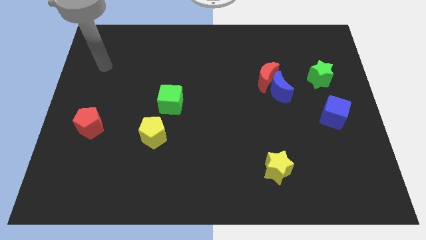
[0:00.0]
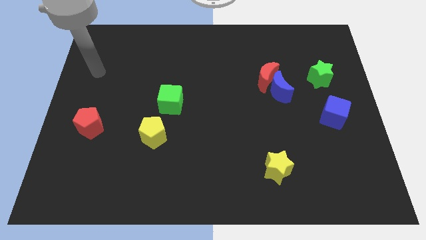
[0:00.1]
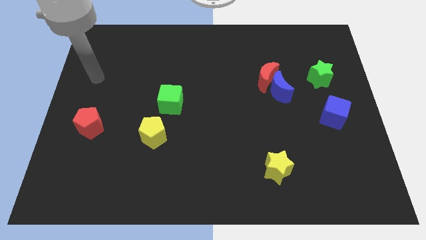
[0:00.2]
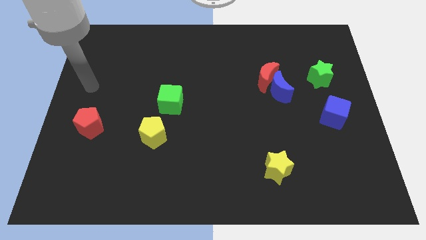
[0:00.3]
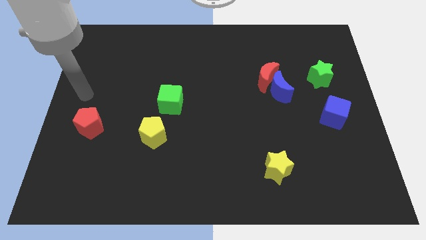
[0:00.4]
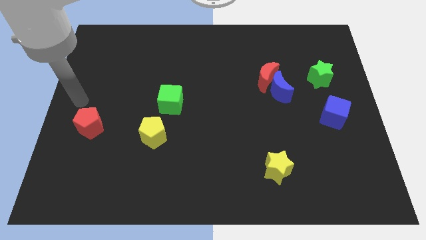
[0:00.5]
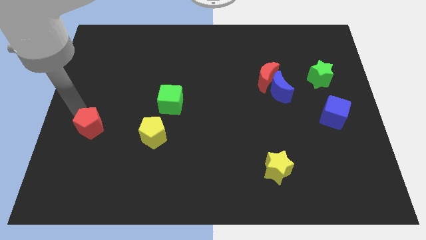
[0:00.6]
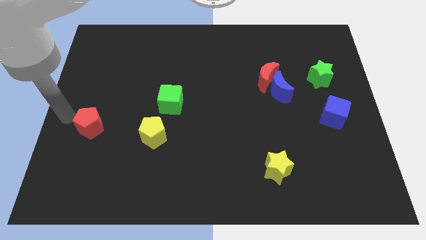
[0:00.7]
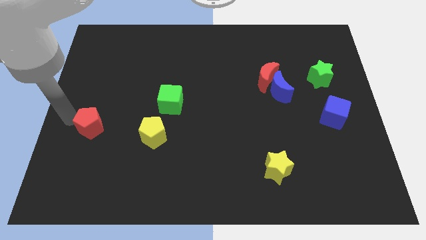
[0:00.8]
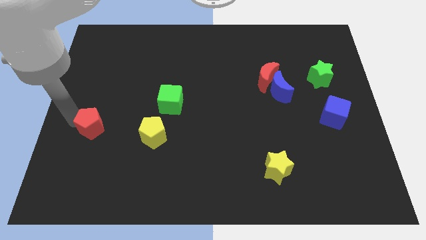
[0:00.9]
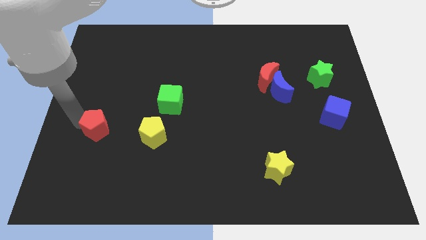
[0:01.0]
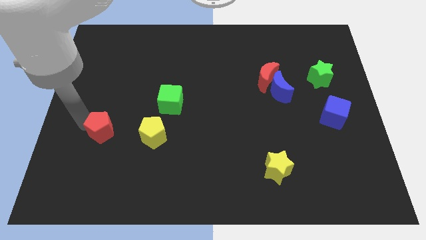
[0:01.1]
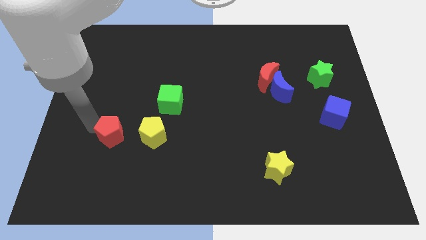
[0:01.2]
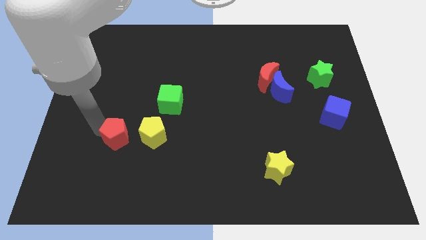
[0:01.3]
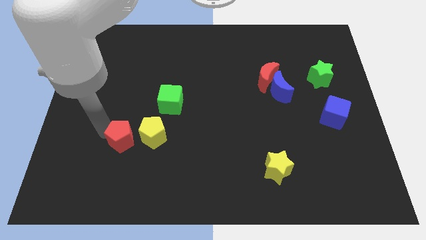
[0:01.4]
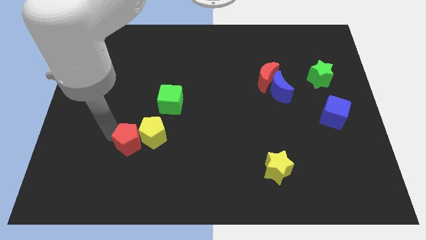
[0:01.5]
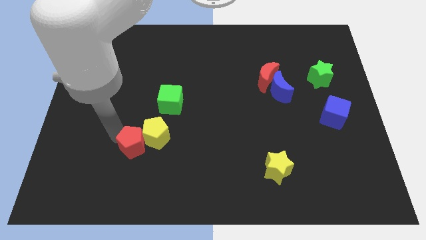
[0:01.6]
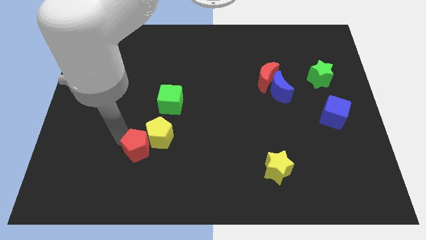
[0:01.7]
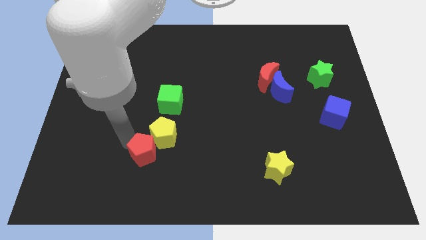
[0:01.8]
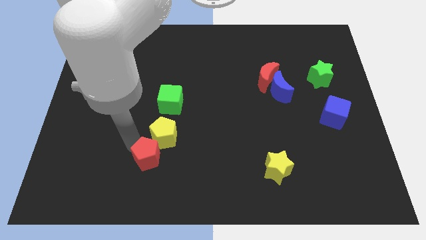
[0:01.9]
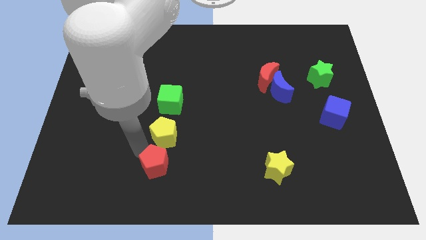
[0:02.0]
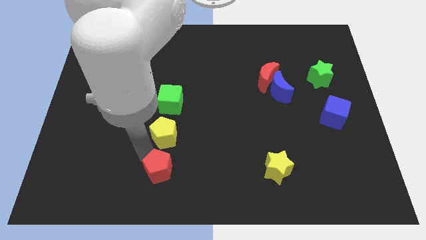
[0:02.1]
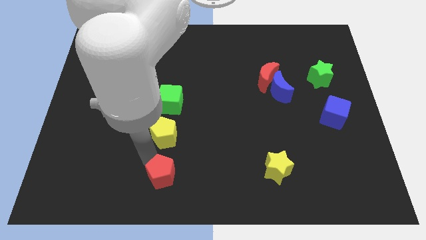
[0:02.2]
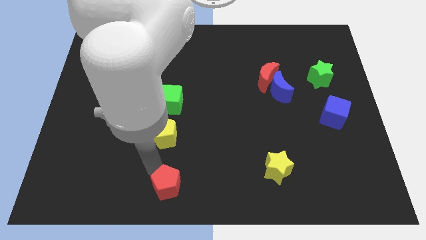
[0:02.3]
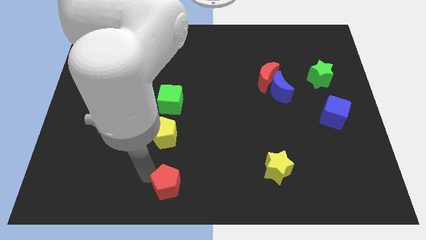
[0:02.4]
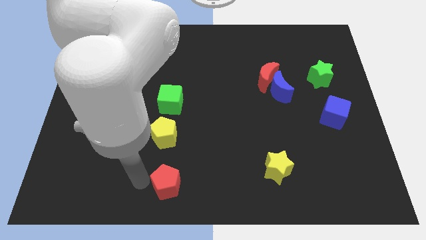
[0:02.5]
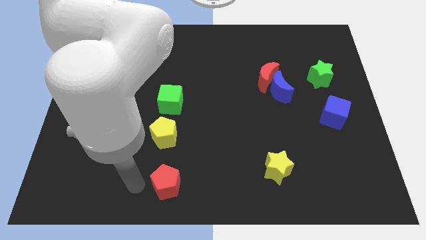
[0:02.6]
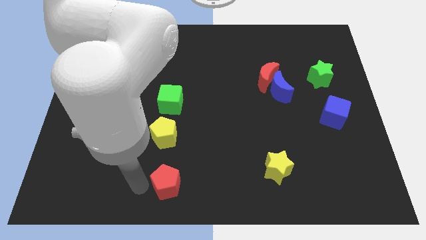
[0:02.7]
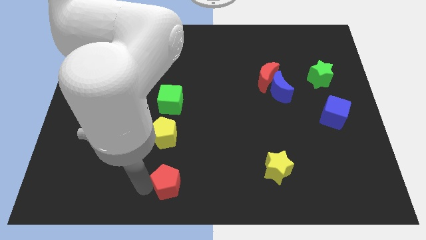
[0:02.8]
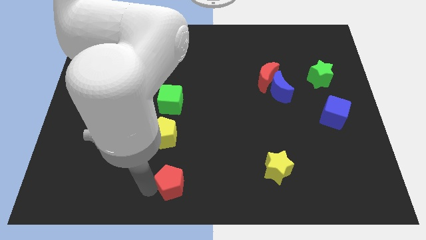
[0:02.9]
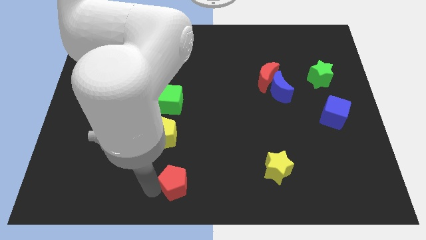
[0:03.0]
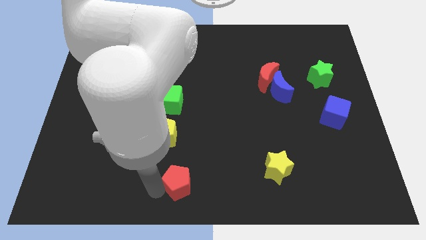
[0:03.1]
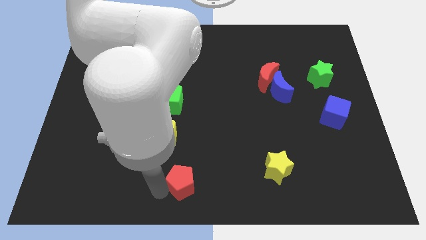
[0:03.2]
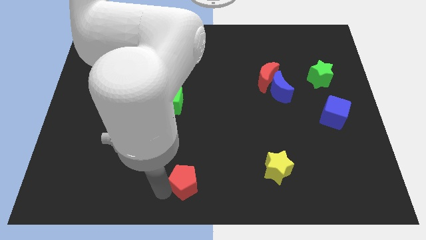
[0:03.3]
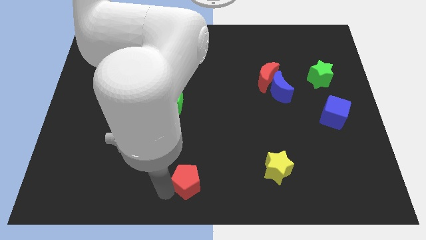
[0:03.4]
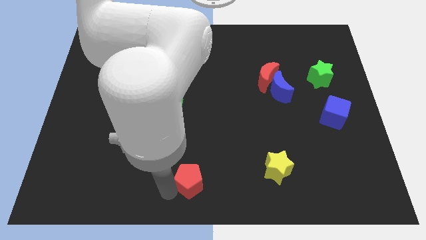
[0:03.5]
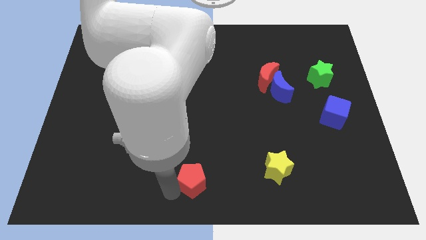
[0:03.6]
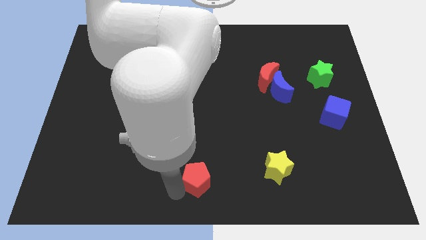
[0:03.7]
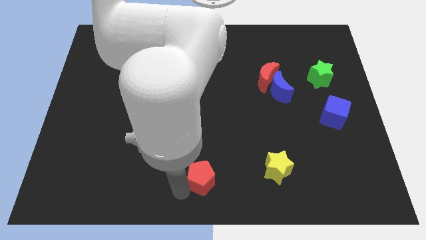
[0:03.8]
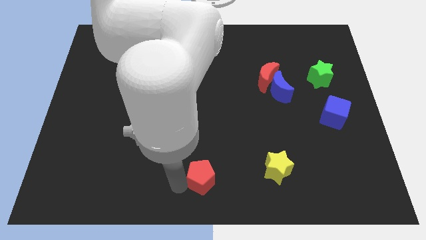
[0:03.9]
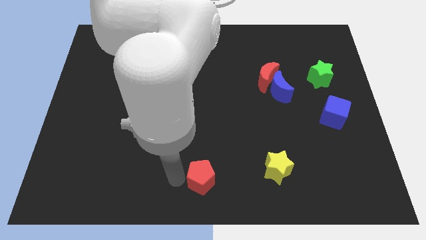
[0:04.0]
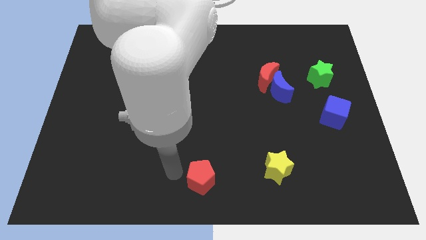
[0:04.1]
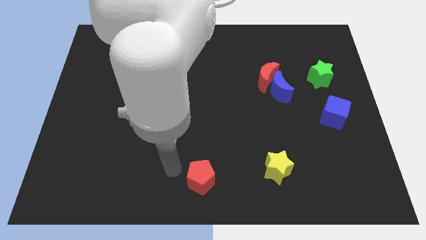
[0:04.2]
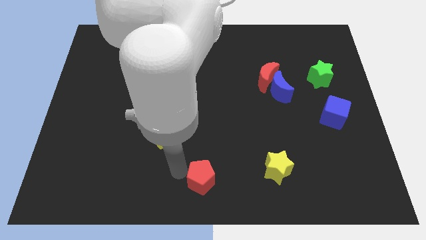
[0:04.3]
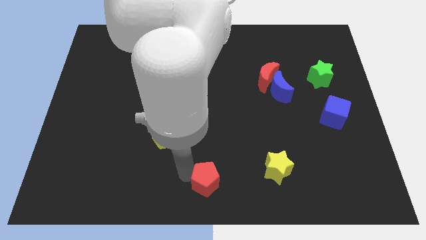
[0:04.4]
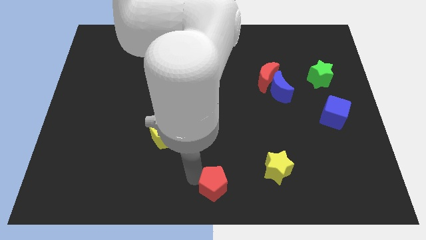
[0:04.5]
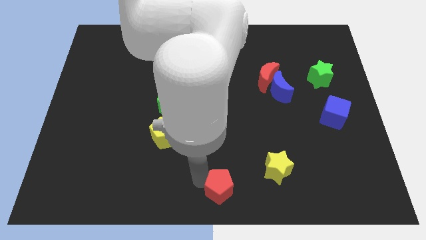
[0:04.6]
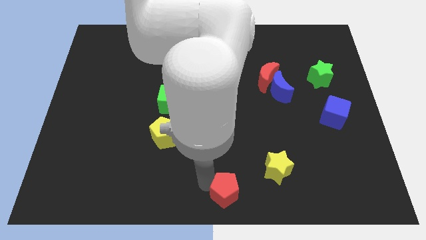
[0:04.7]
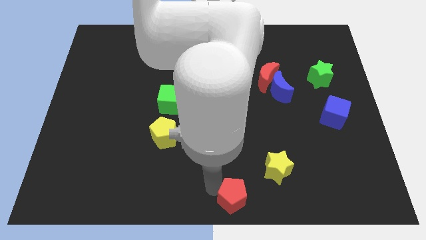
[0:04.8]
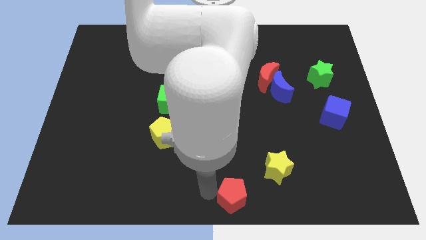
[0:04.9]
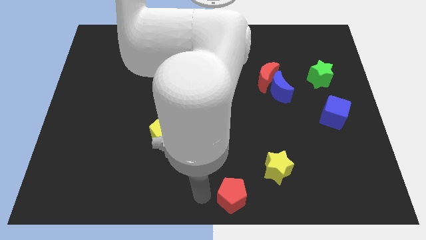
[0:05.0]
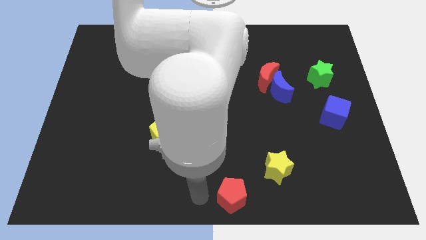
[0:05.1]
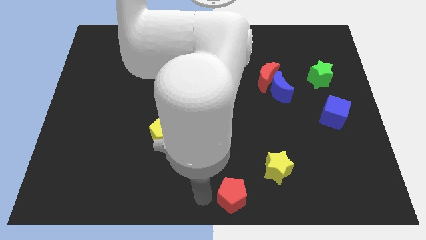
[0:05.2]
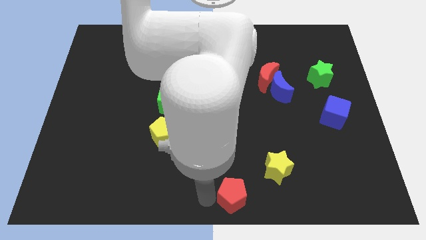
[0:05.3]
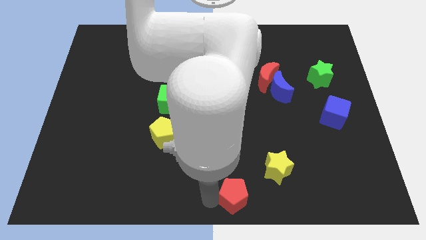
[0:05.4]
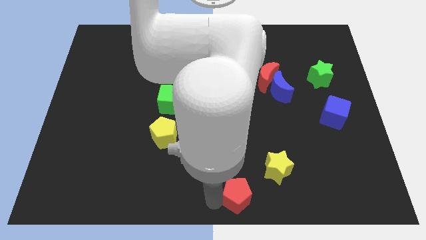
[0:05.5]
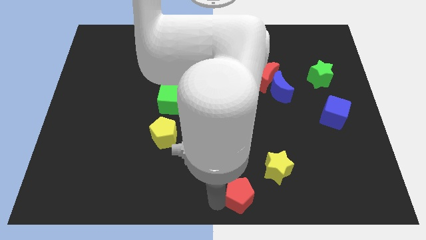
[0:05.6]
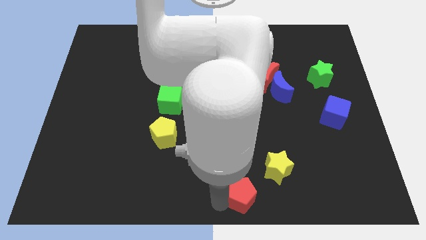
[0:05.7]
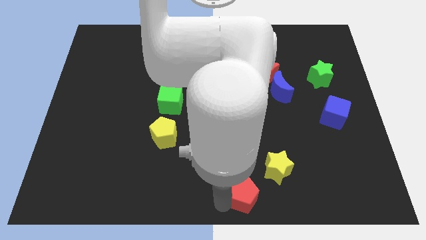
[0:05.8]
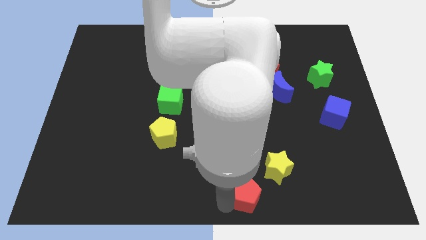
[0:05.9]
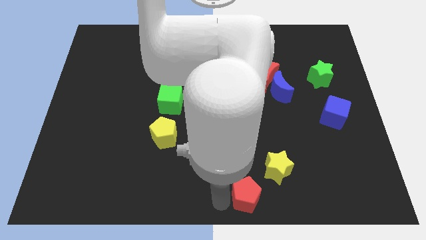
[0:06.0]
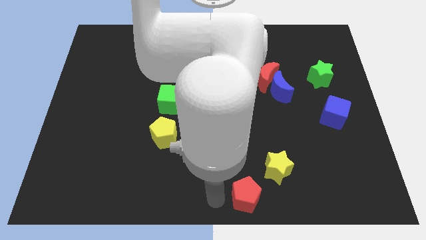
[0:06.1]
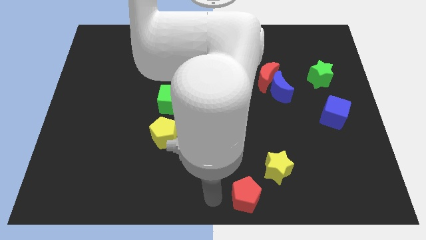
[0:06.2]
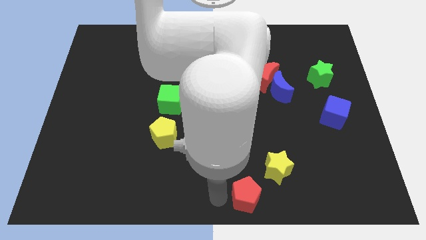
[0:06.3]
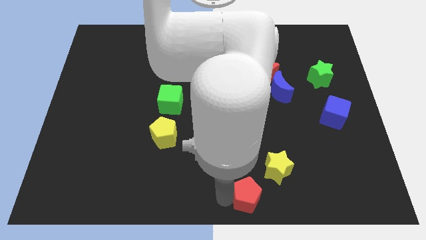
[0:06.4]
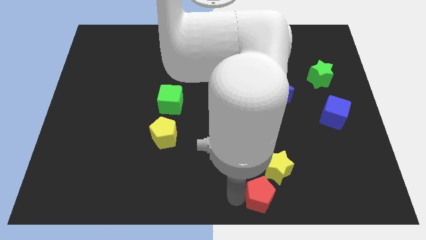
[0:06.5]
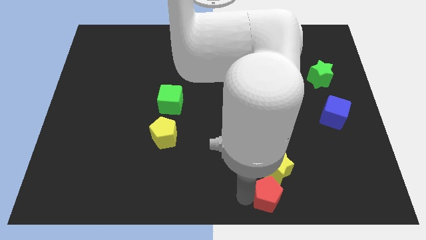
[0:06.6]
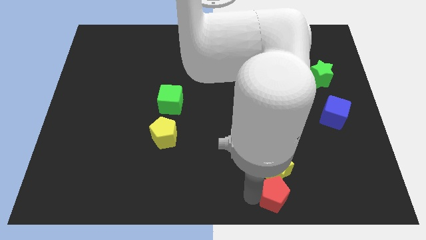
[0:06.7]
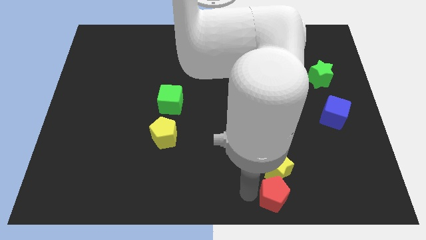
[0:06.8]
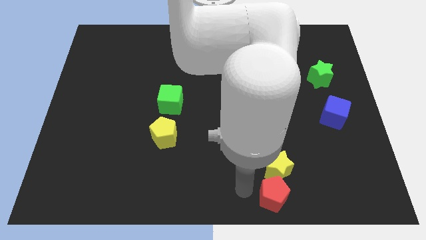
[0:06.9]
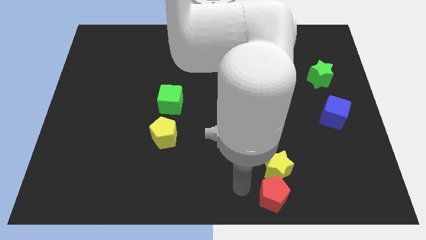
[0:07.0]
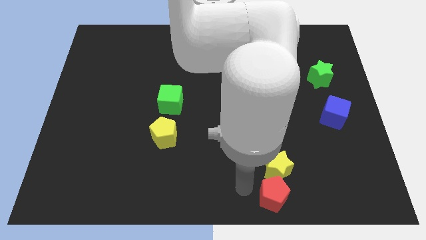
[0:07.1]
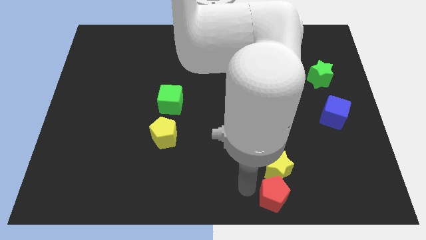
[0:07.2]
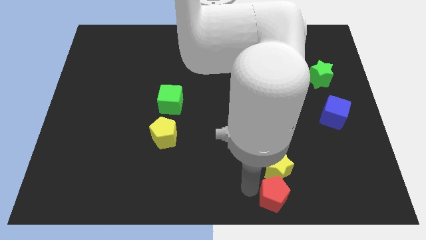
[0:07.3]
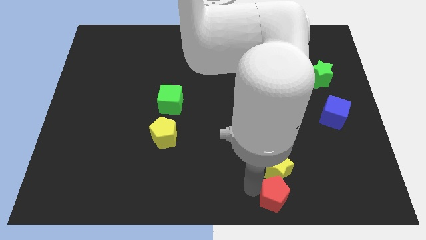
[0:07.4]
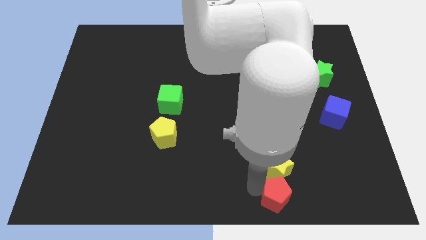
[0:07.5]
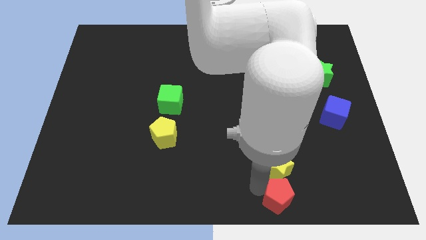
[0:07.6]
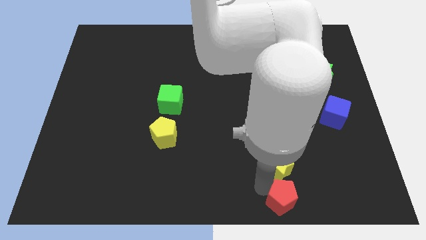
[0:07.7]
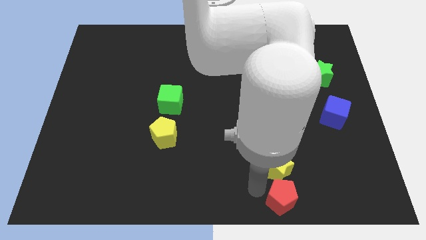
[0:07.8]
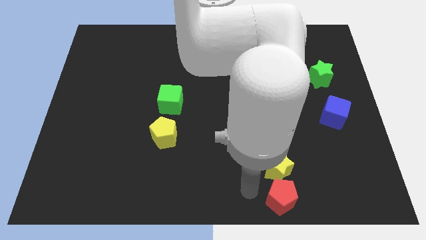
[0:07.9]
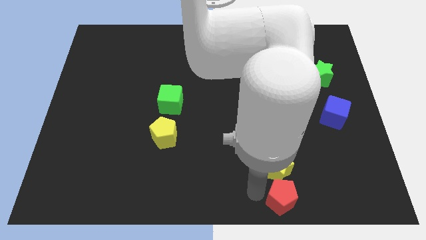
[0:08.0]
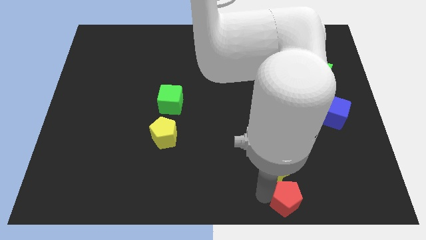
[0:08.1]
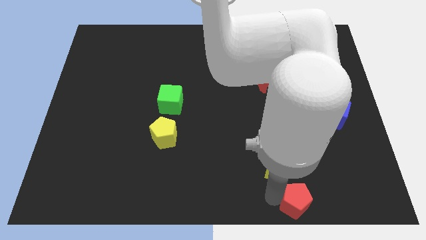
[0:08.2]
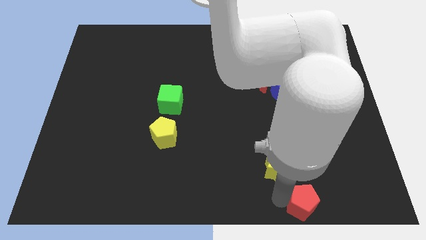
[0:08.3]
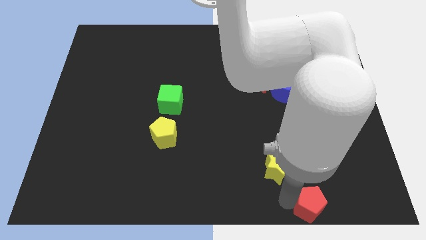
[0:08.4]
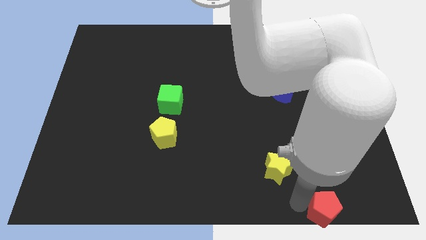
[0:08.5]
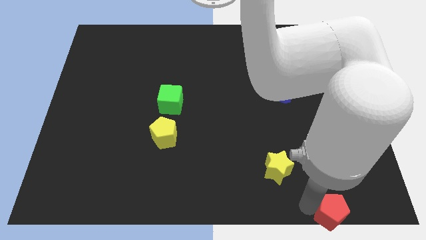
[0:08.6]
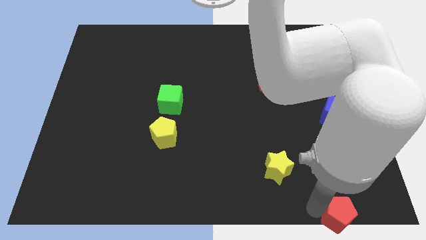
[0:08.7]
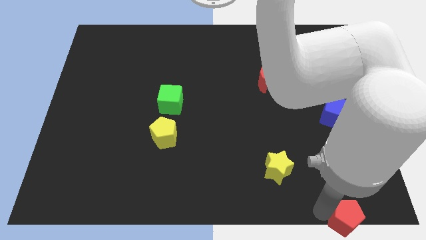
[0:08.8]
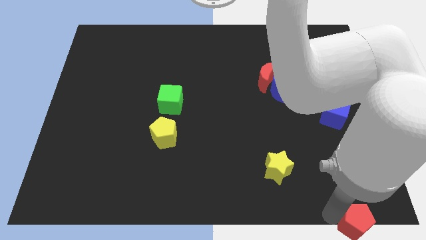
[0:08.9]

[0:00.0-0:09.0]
slide the red pentagon to the lower right corner
